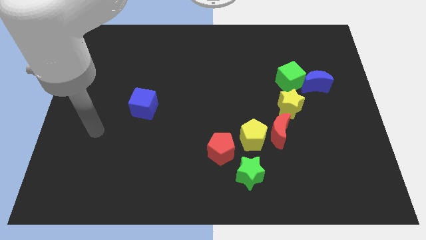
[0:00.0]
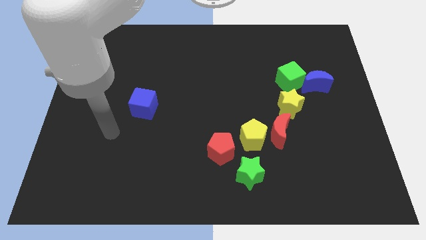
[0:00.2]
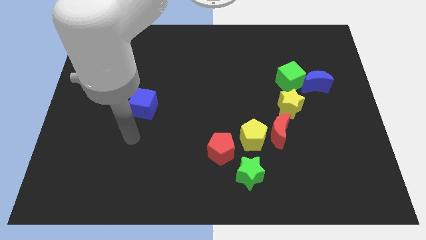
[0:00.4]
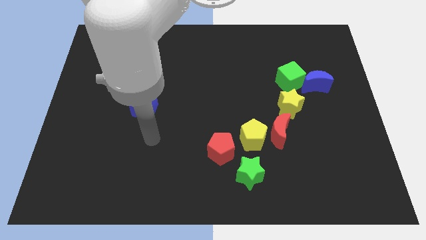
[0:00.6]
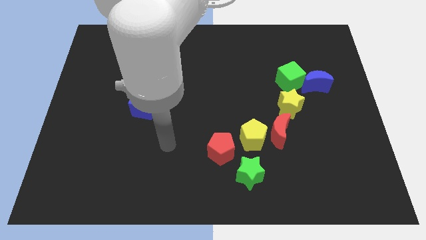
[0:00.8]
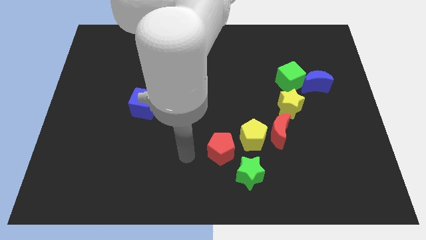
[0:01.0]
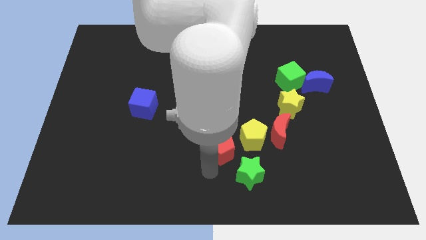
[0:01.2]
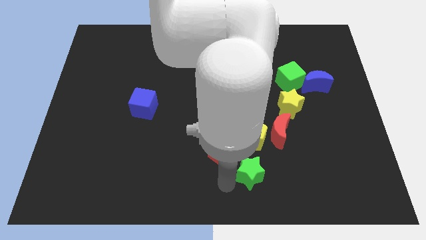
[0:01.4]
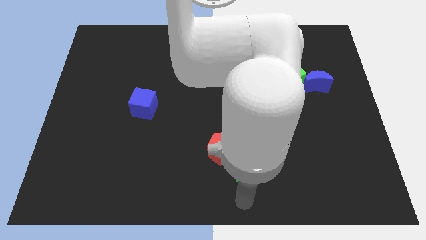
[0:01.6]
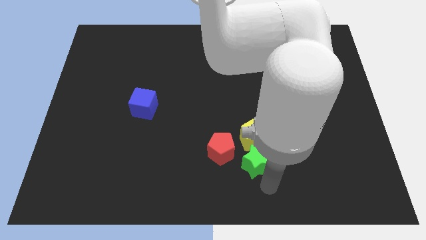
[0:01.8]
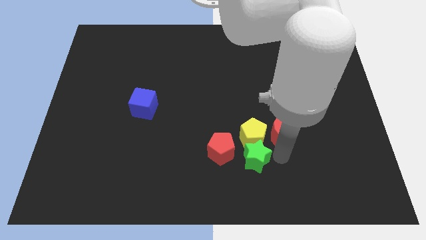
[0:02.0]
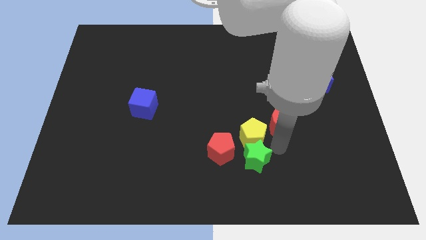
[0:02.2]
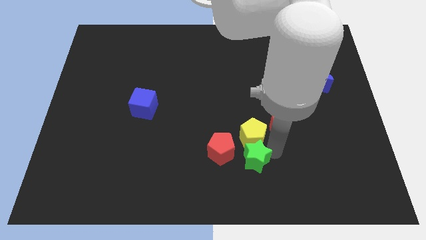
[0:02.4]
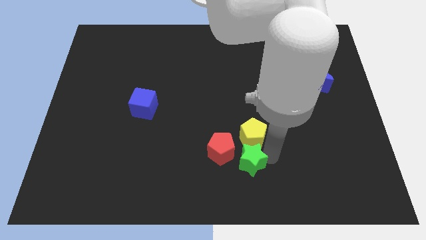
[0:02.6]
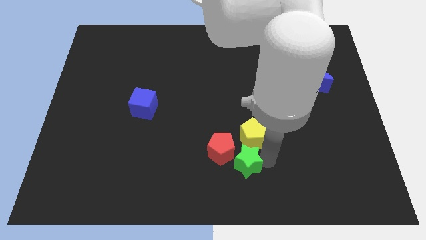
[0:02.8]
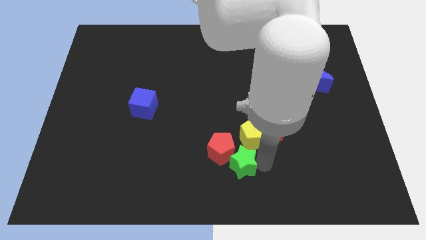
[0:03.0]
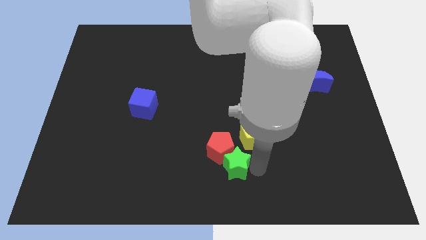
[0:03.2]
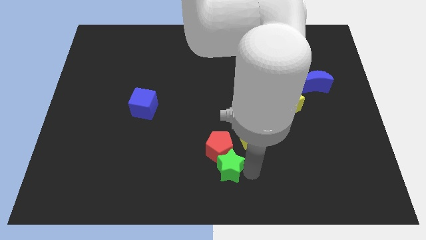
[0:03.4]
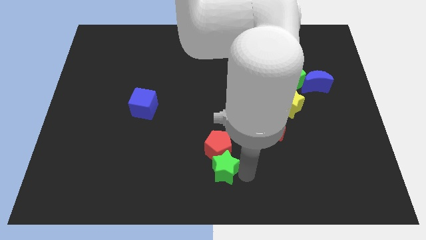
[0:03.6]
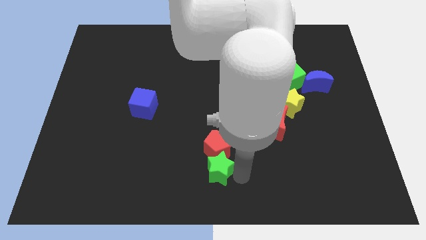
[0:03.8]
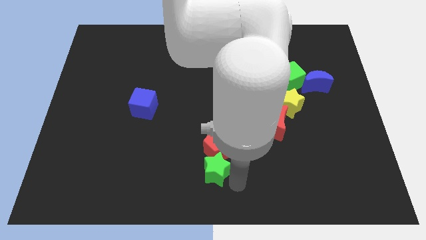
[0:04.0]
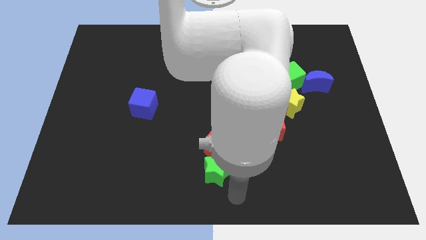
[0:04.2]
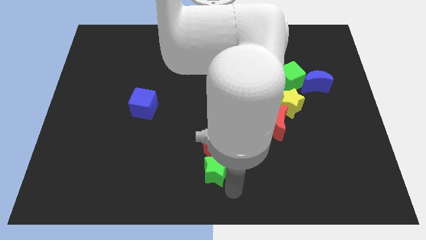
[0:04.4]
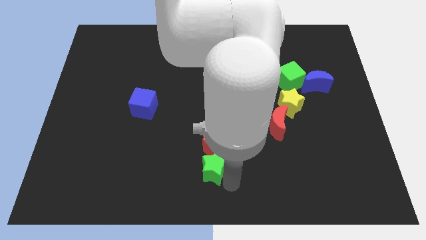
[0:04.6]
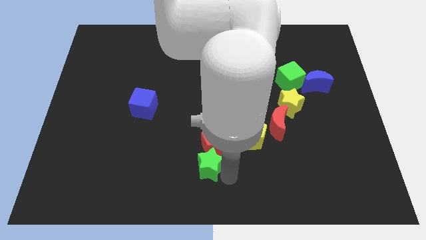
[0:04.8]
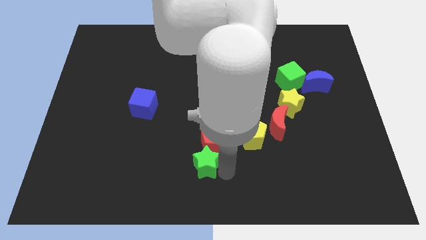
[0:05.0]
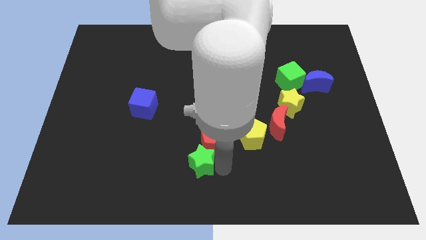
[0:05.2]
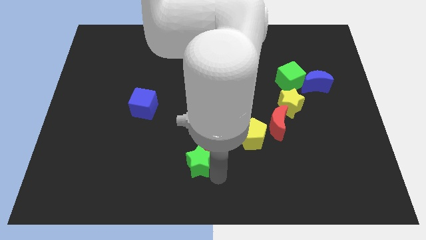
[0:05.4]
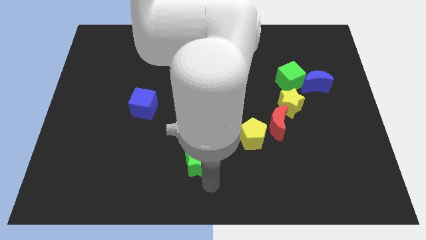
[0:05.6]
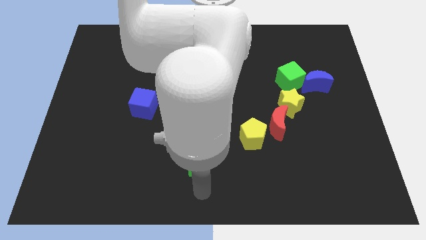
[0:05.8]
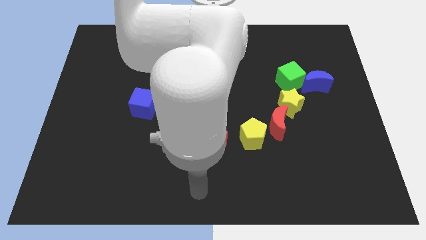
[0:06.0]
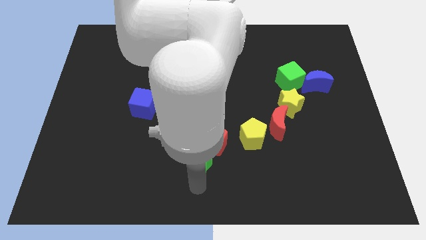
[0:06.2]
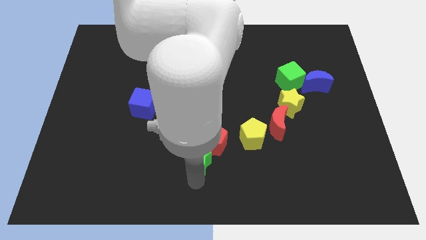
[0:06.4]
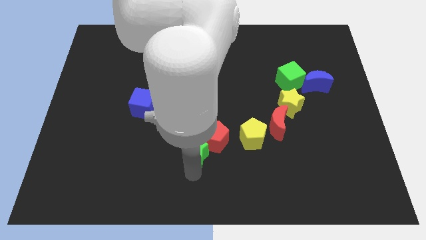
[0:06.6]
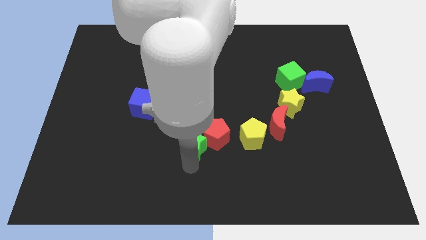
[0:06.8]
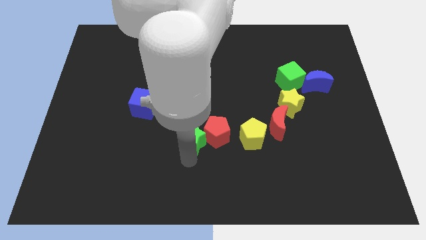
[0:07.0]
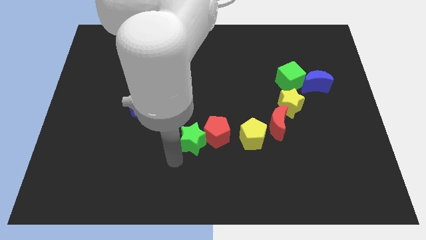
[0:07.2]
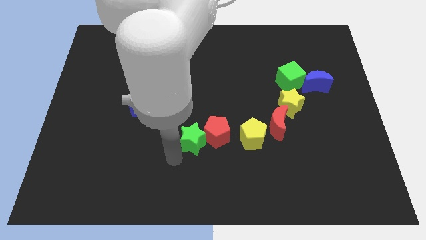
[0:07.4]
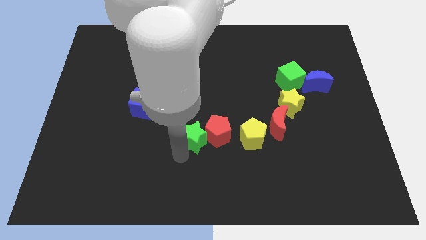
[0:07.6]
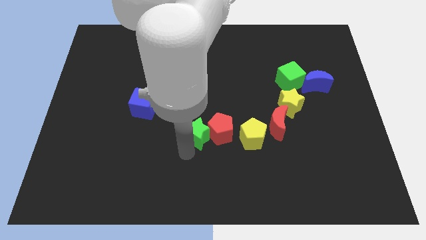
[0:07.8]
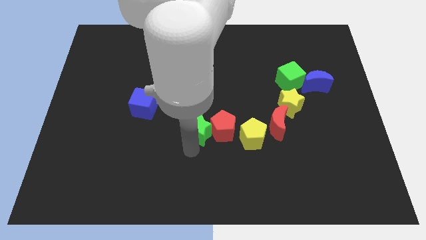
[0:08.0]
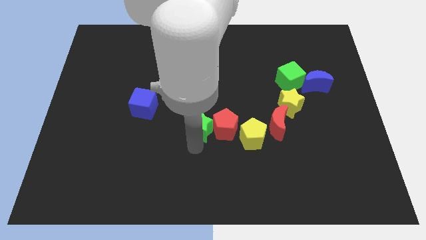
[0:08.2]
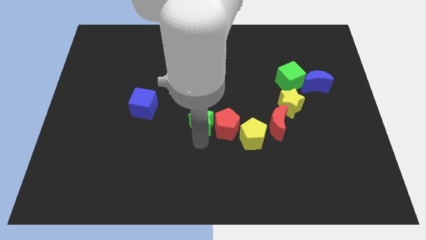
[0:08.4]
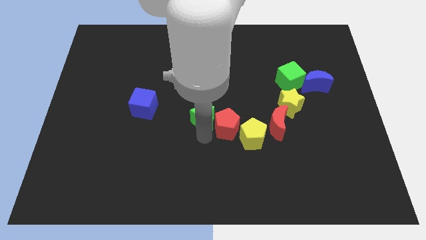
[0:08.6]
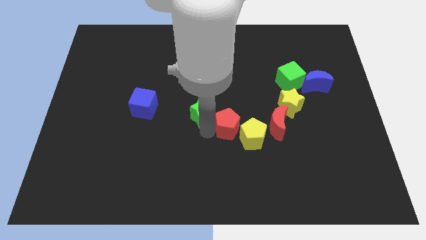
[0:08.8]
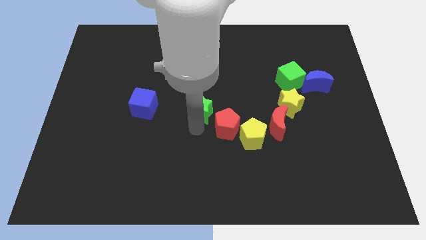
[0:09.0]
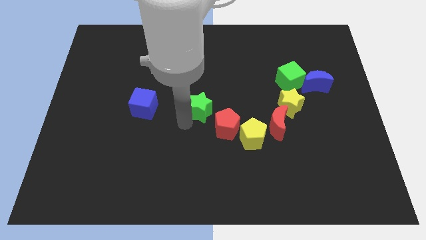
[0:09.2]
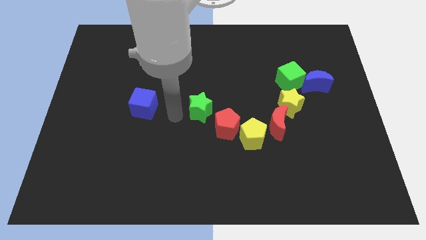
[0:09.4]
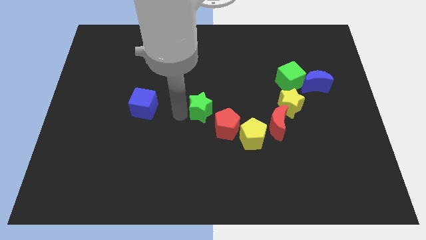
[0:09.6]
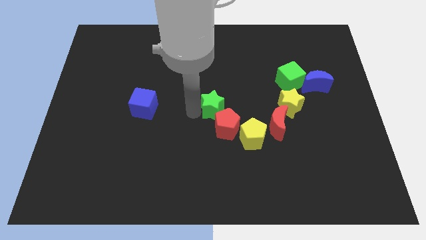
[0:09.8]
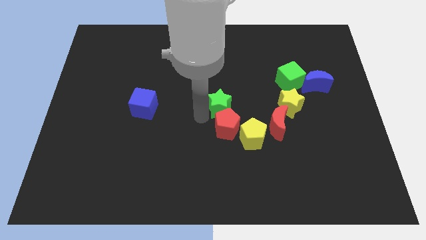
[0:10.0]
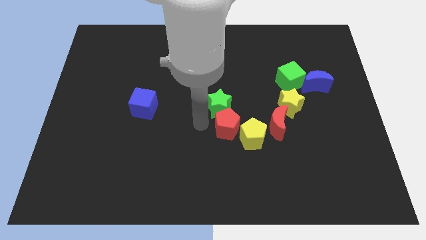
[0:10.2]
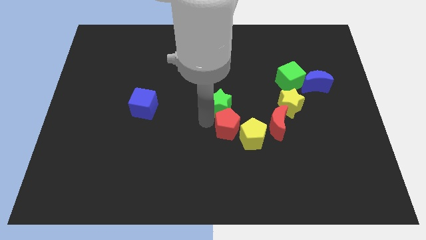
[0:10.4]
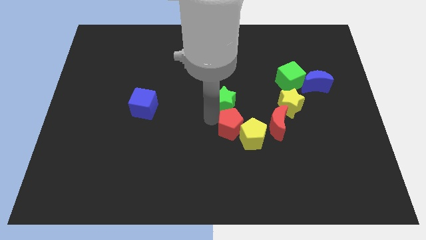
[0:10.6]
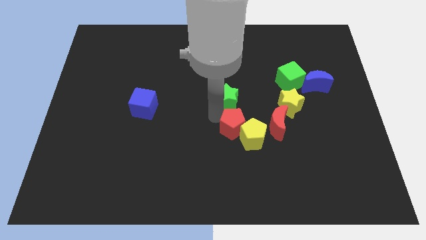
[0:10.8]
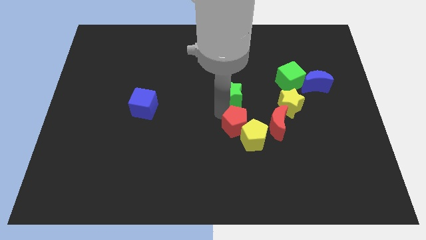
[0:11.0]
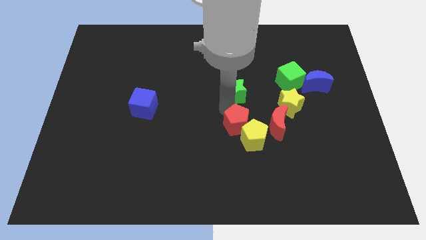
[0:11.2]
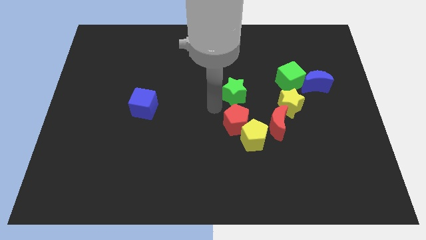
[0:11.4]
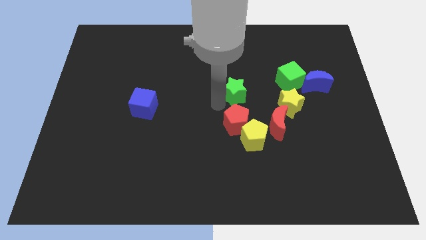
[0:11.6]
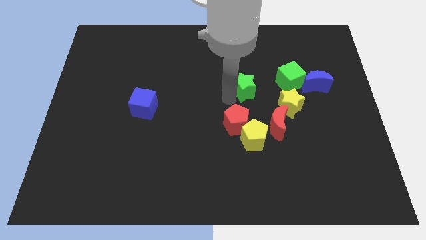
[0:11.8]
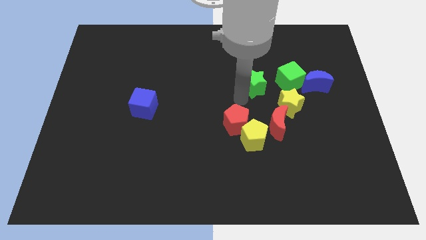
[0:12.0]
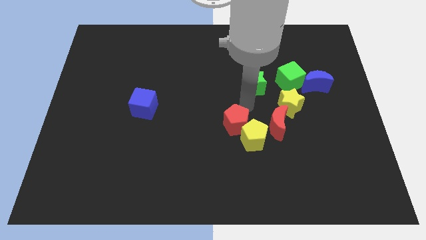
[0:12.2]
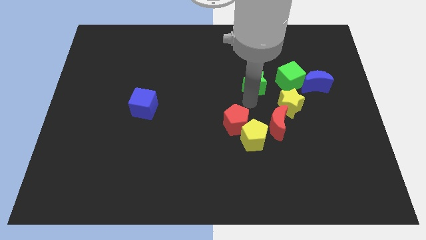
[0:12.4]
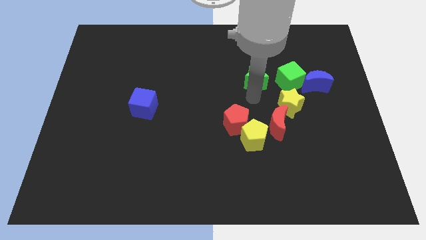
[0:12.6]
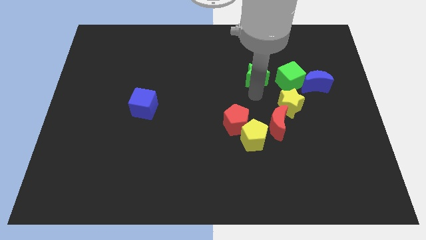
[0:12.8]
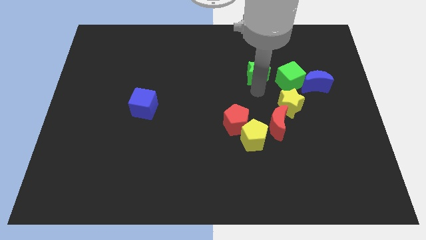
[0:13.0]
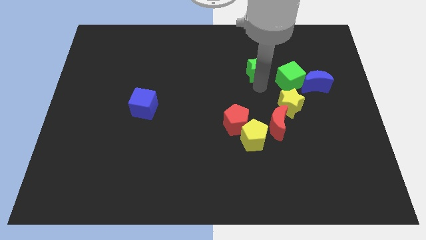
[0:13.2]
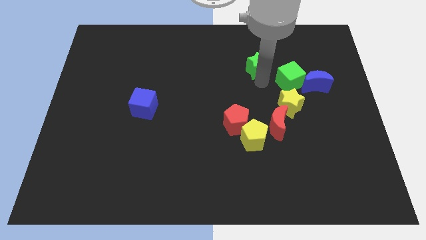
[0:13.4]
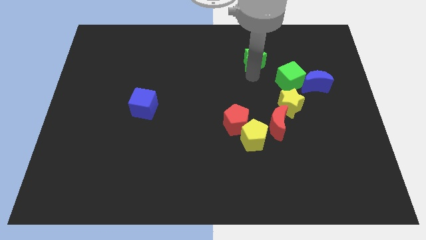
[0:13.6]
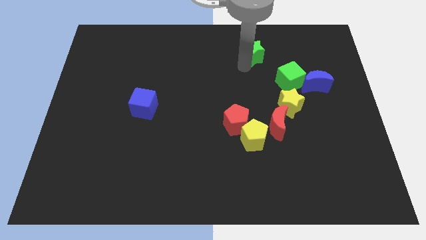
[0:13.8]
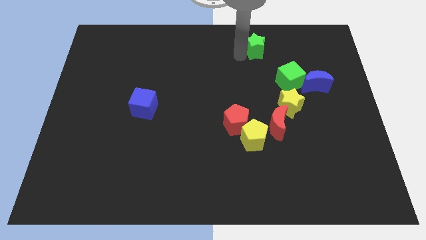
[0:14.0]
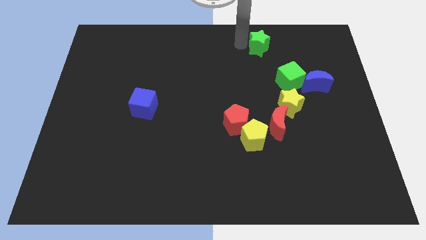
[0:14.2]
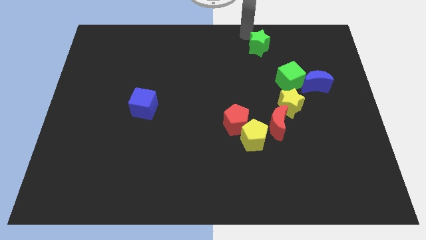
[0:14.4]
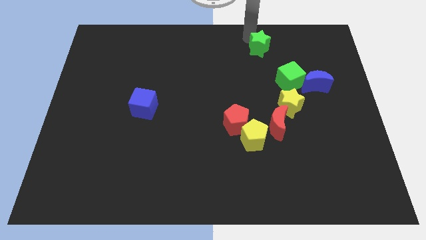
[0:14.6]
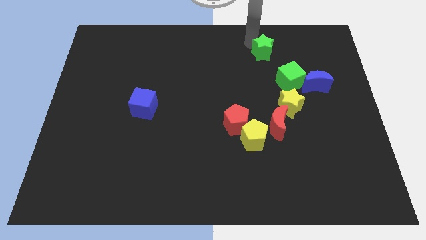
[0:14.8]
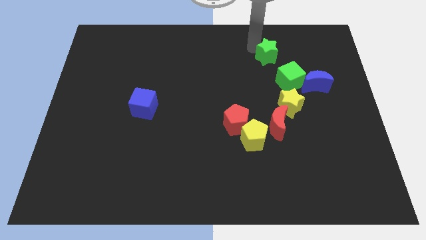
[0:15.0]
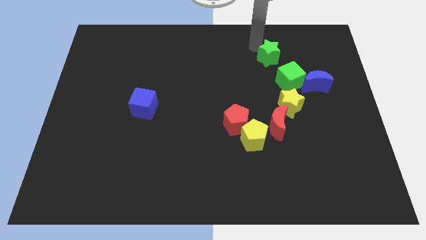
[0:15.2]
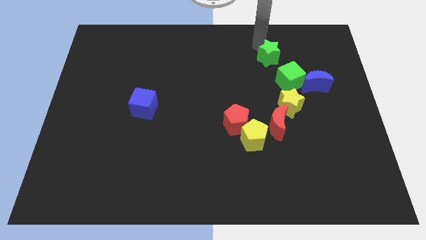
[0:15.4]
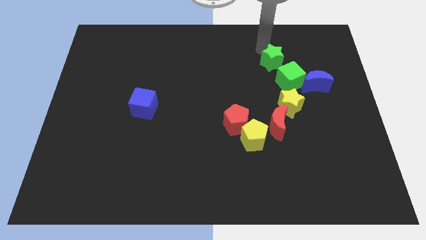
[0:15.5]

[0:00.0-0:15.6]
put the green star to the top of the yellow star
